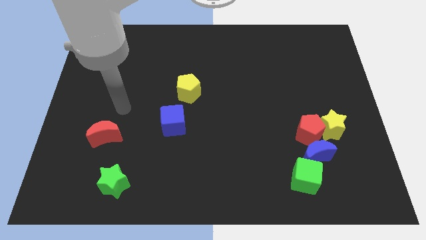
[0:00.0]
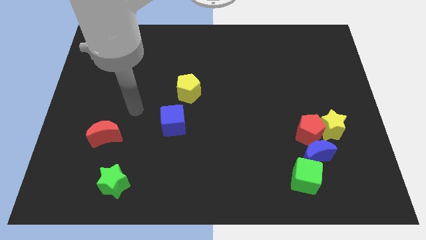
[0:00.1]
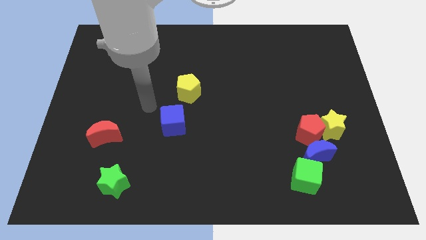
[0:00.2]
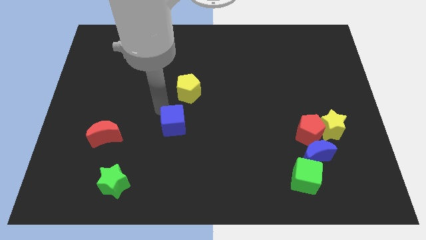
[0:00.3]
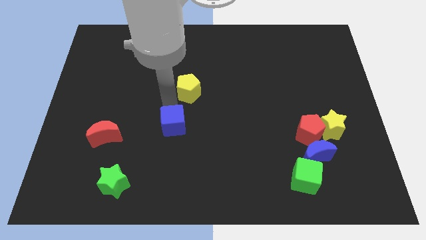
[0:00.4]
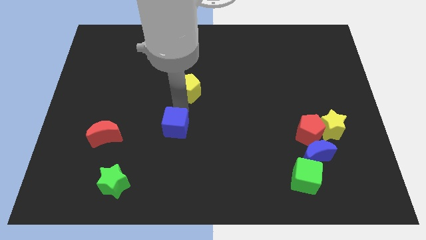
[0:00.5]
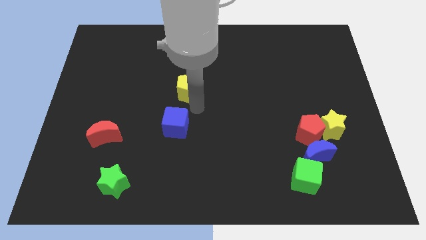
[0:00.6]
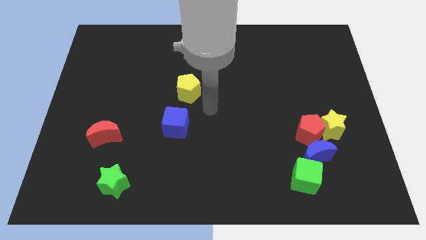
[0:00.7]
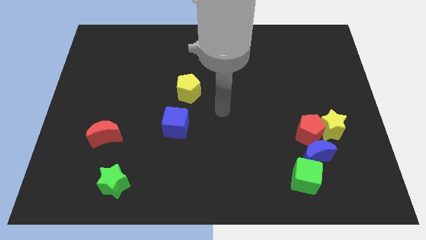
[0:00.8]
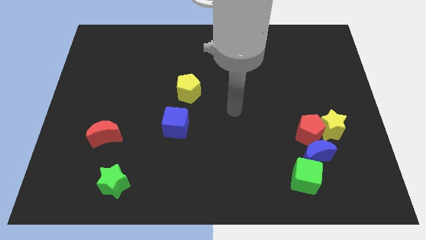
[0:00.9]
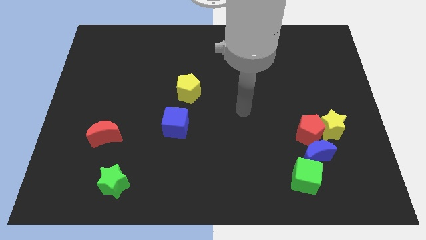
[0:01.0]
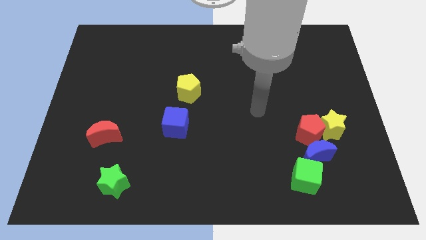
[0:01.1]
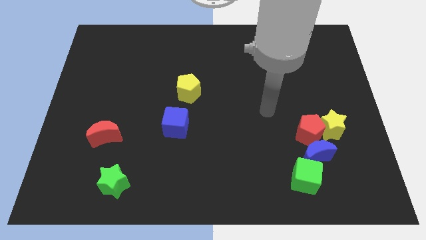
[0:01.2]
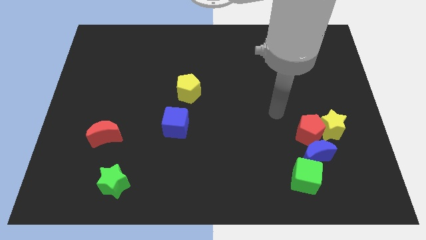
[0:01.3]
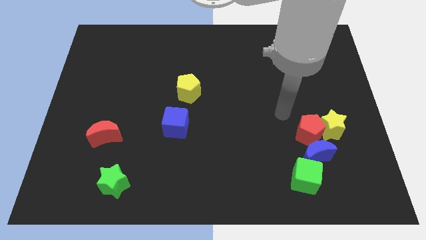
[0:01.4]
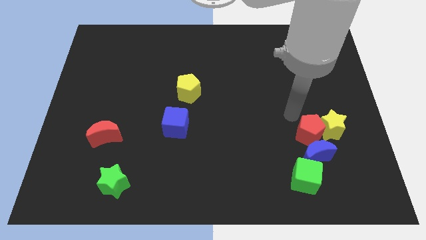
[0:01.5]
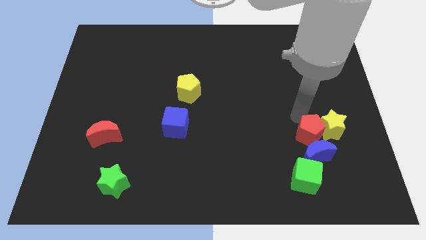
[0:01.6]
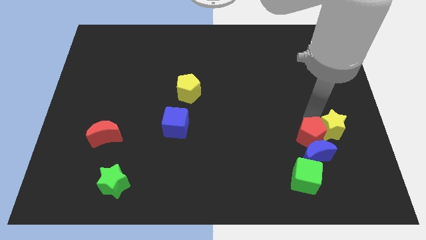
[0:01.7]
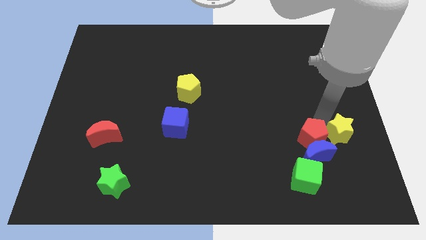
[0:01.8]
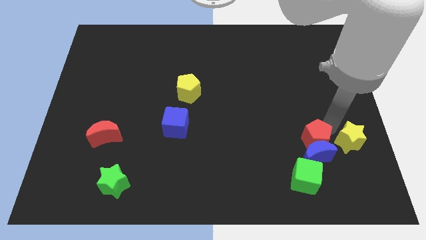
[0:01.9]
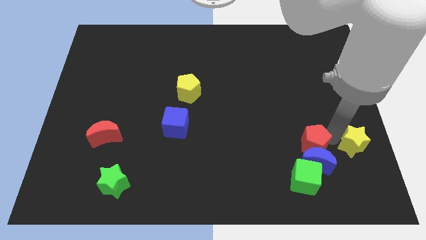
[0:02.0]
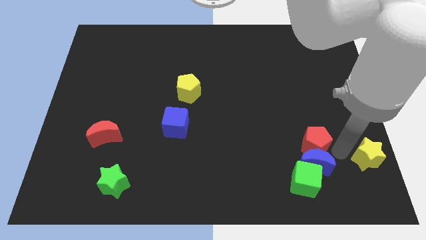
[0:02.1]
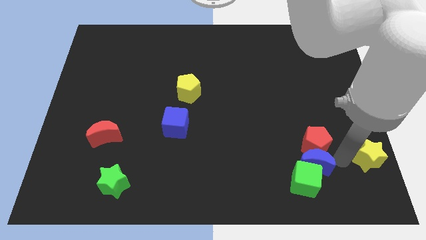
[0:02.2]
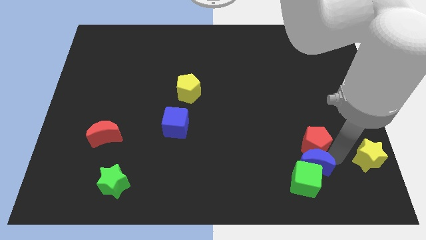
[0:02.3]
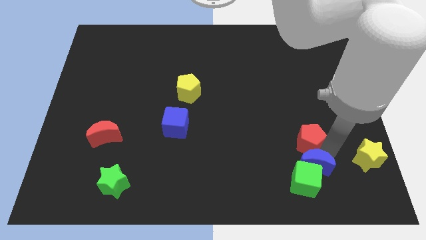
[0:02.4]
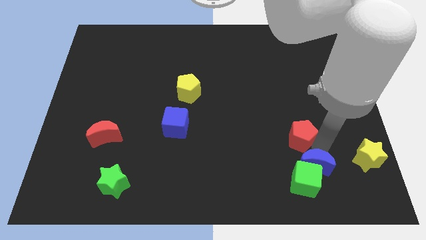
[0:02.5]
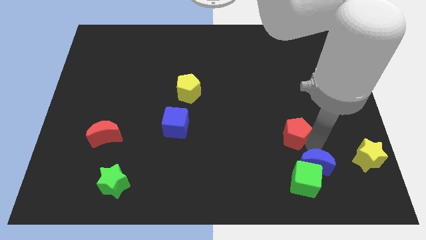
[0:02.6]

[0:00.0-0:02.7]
pull the red pentagon apart from the yellow star and blue moon

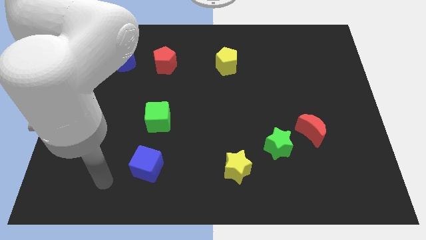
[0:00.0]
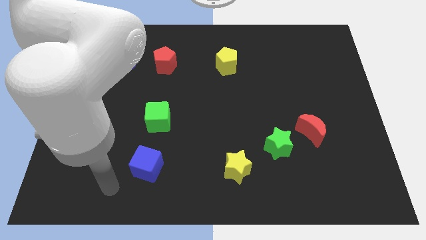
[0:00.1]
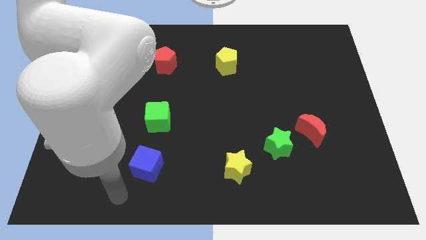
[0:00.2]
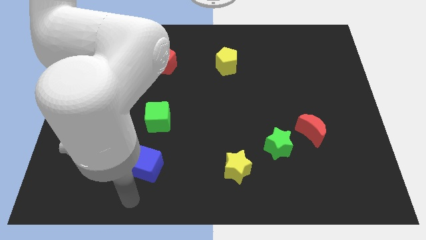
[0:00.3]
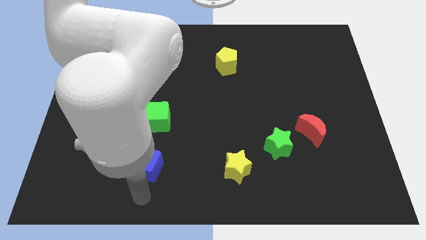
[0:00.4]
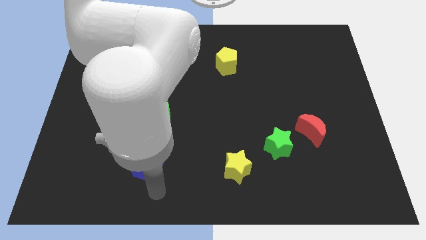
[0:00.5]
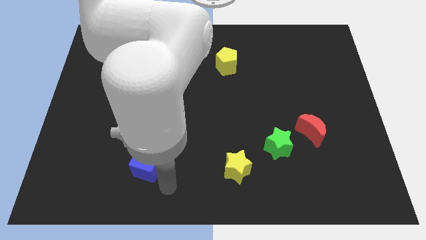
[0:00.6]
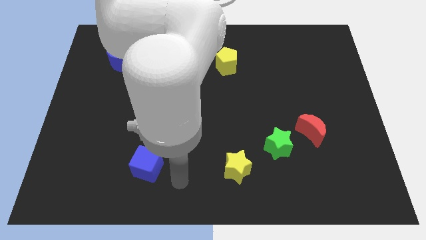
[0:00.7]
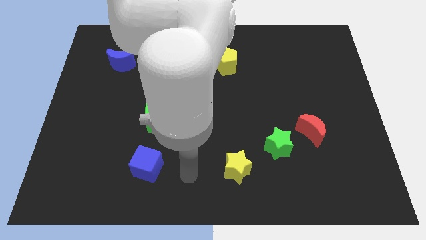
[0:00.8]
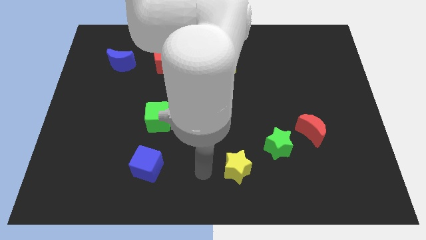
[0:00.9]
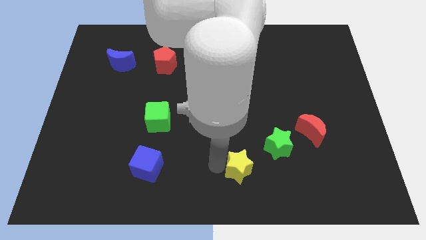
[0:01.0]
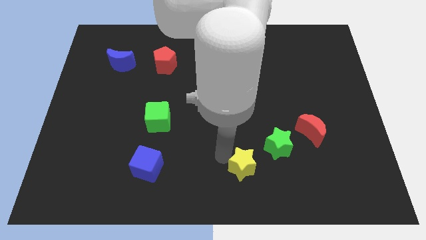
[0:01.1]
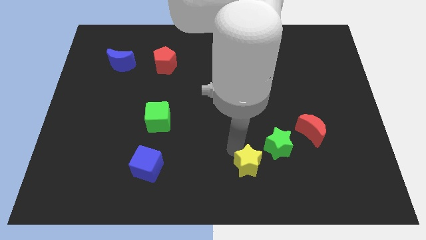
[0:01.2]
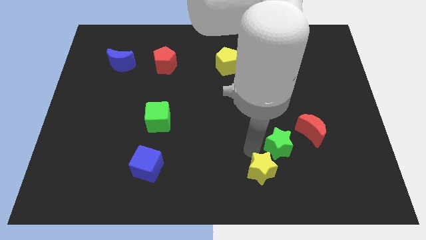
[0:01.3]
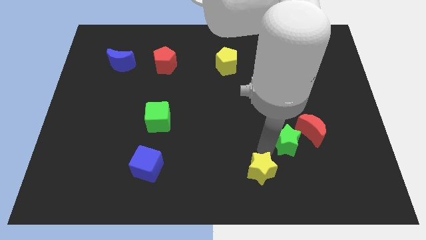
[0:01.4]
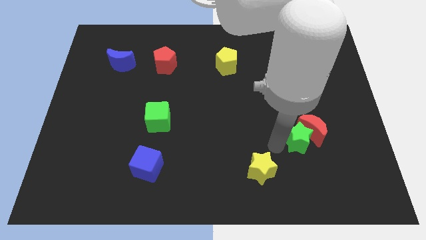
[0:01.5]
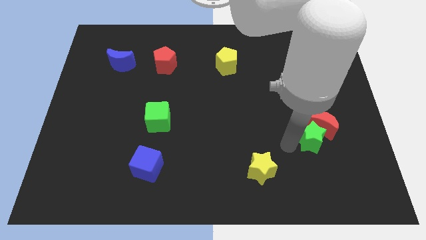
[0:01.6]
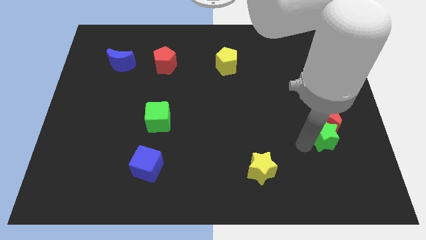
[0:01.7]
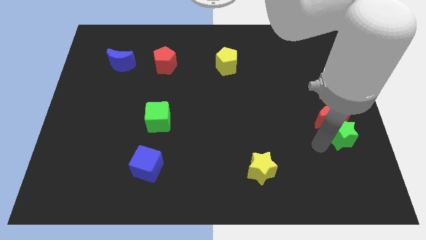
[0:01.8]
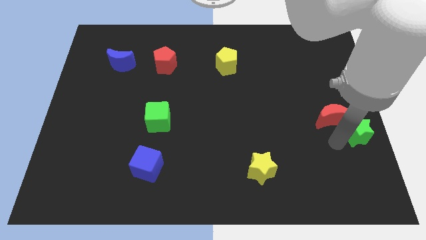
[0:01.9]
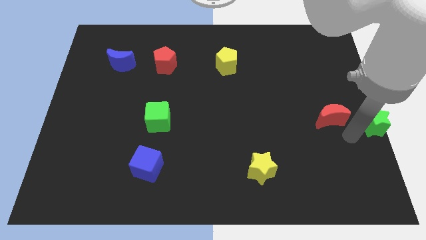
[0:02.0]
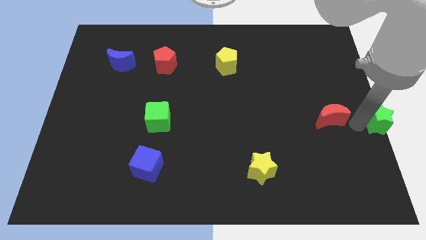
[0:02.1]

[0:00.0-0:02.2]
move the red moon away from the green star

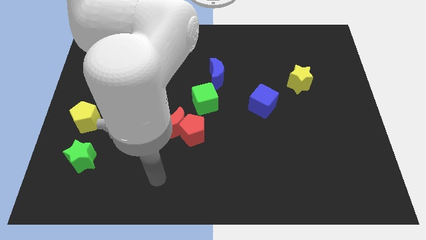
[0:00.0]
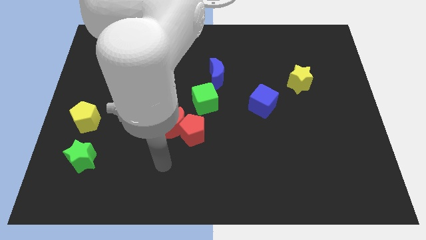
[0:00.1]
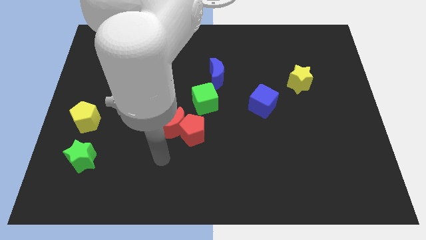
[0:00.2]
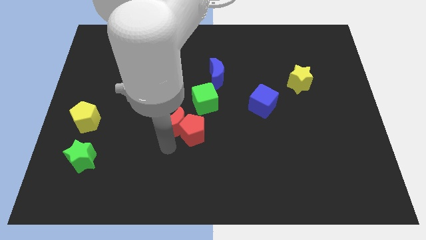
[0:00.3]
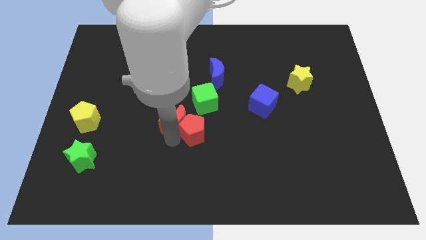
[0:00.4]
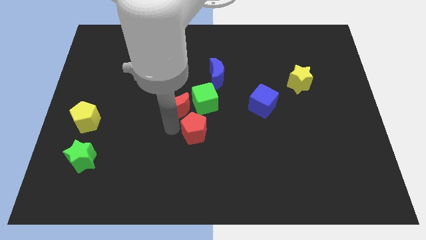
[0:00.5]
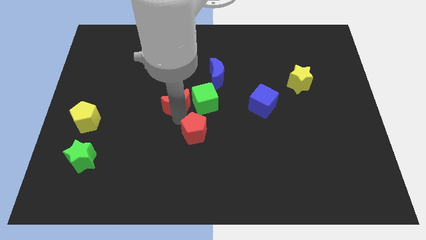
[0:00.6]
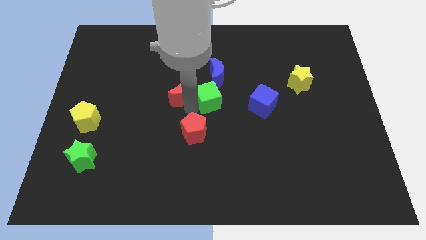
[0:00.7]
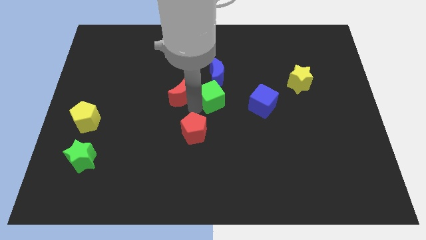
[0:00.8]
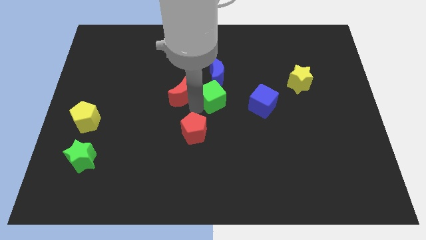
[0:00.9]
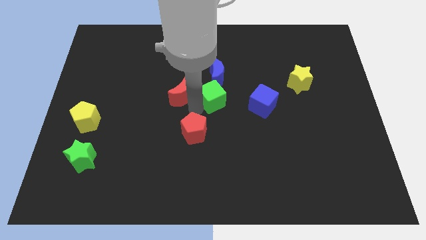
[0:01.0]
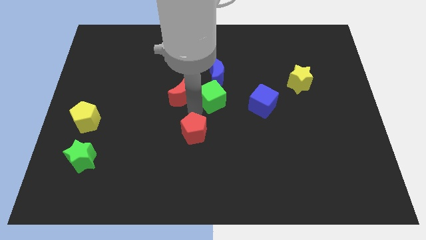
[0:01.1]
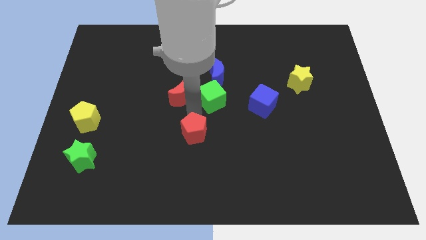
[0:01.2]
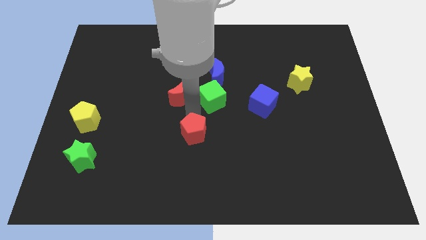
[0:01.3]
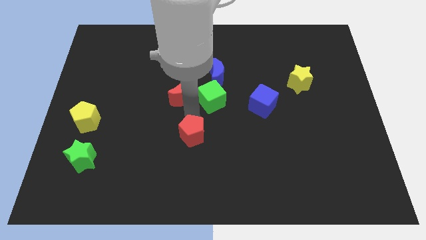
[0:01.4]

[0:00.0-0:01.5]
move the red pentagon away from the red moon and green cube

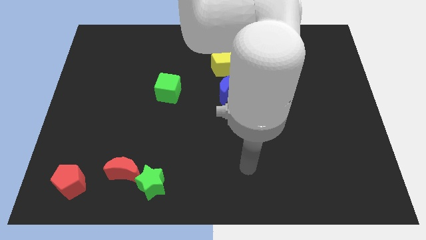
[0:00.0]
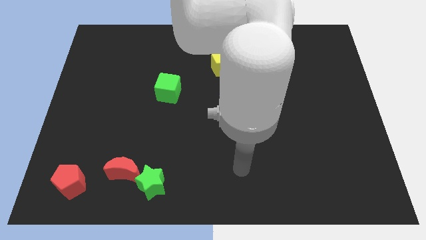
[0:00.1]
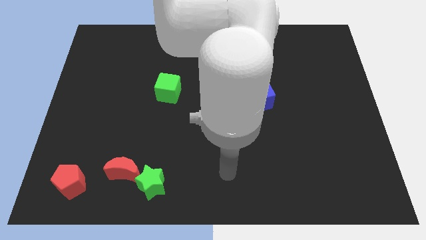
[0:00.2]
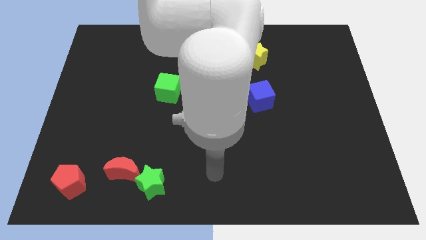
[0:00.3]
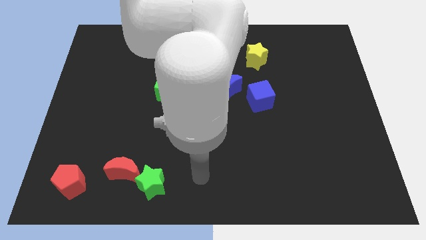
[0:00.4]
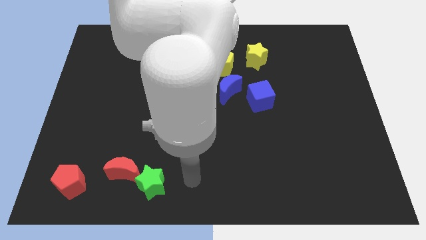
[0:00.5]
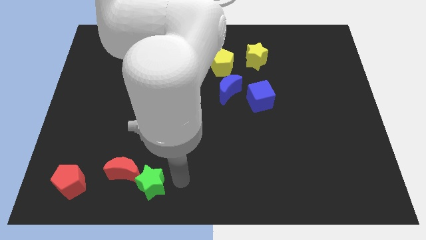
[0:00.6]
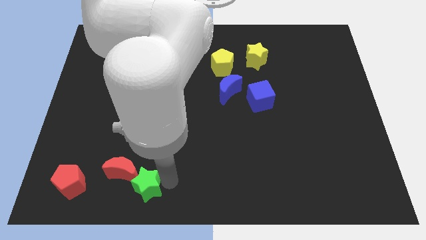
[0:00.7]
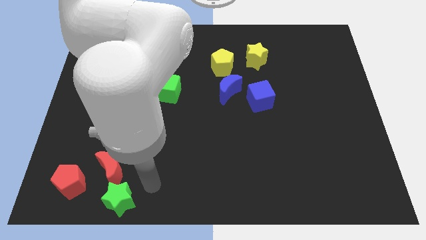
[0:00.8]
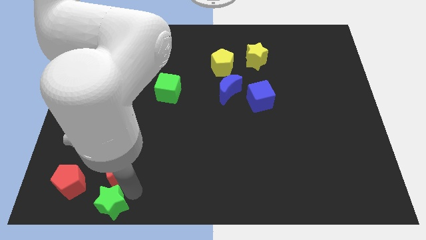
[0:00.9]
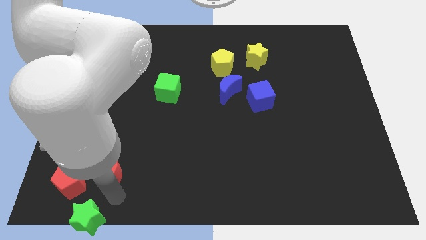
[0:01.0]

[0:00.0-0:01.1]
separate the red moon from the green star

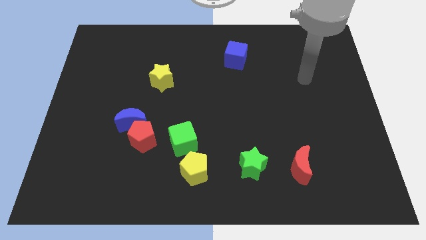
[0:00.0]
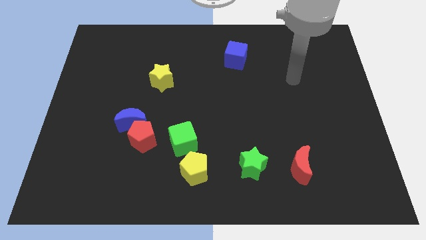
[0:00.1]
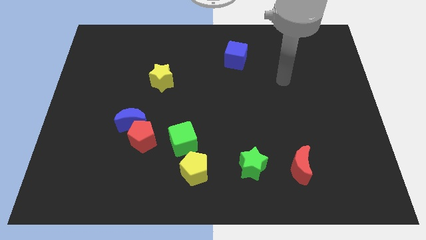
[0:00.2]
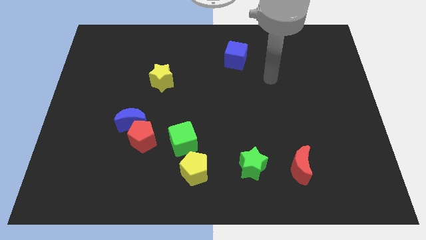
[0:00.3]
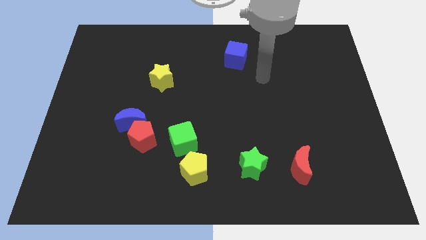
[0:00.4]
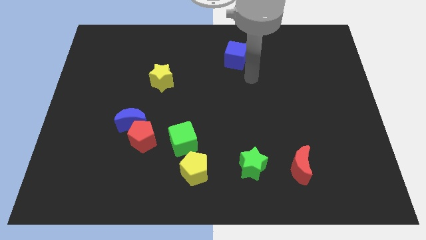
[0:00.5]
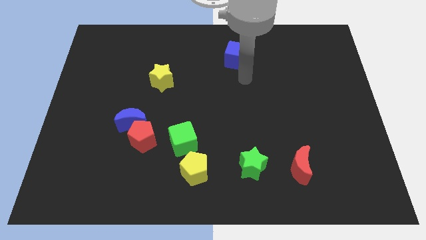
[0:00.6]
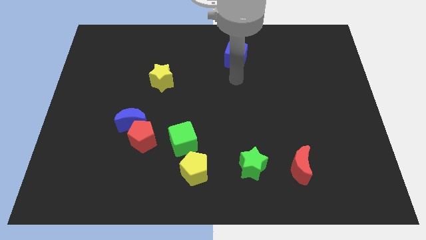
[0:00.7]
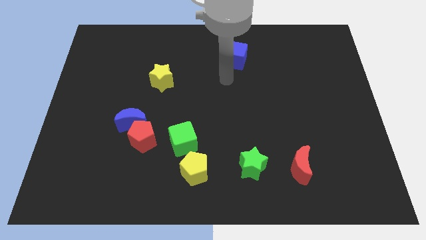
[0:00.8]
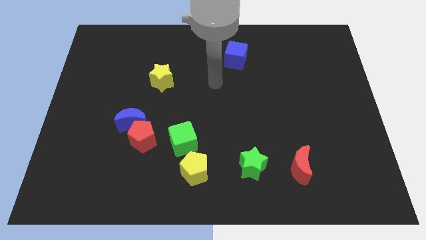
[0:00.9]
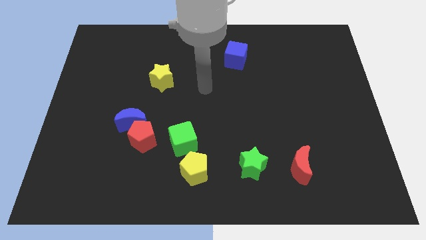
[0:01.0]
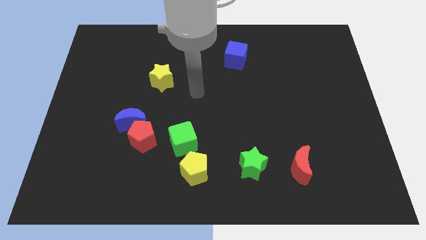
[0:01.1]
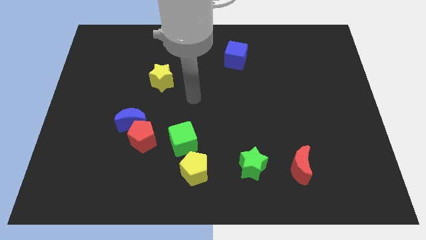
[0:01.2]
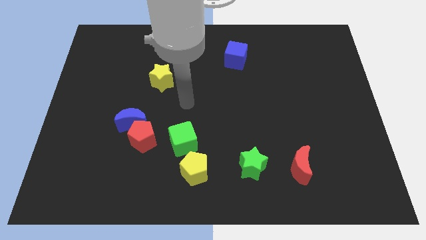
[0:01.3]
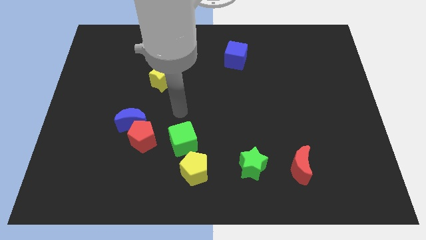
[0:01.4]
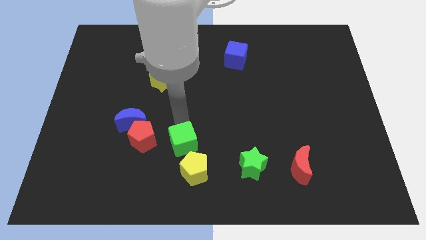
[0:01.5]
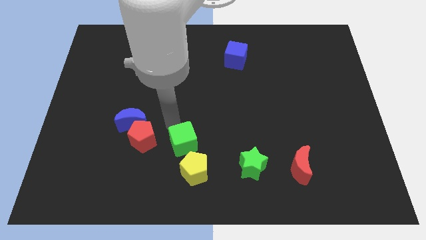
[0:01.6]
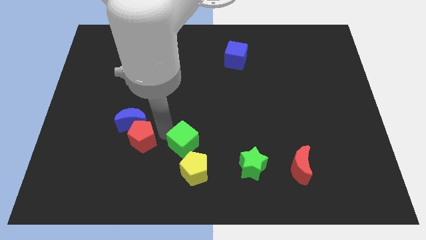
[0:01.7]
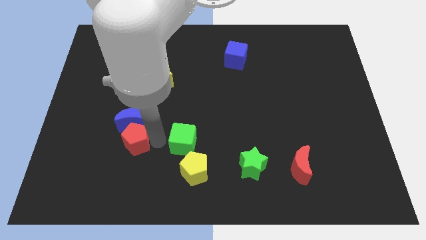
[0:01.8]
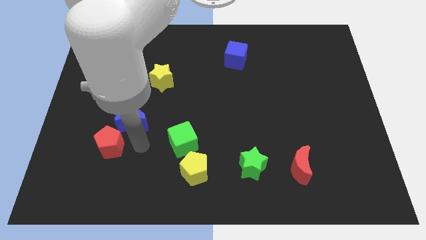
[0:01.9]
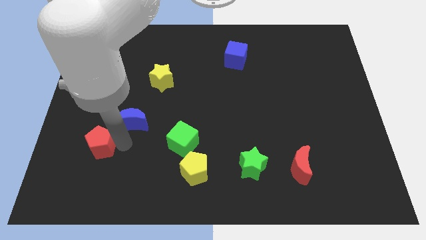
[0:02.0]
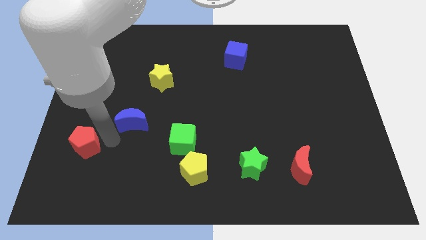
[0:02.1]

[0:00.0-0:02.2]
separate the blue moon from the red pentagon
